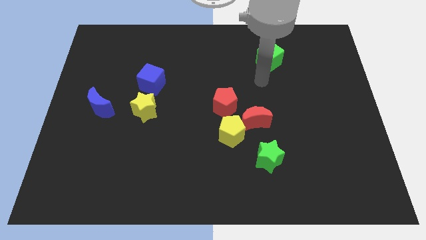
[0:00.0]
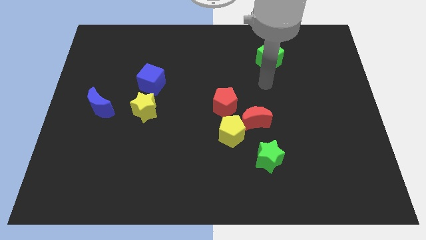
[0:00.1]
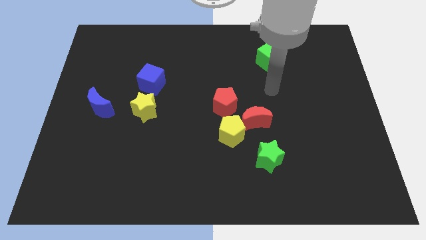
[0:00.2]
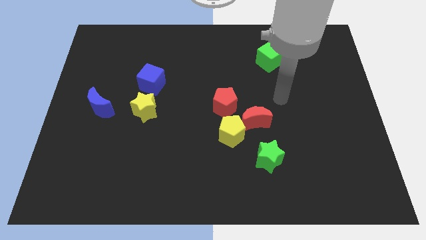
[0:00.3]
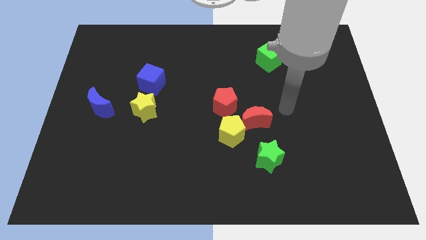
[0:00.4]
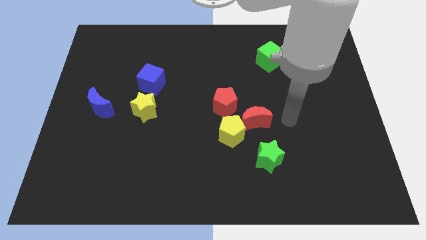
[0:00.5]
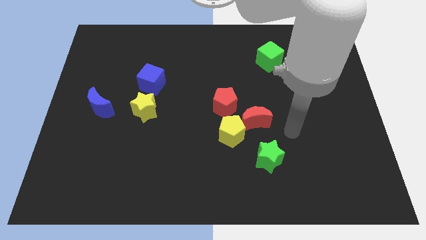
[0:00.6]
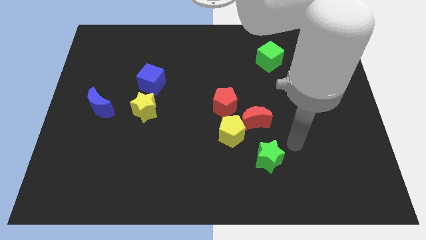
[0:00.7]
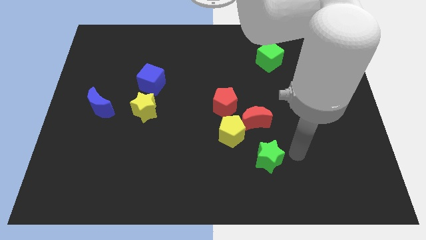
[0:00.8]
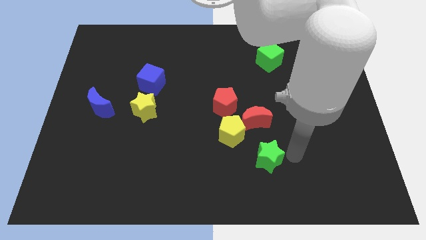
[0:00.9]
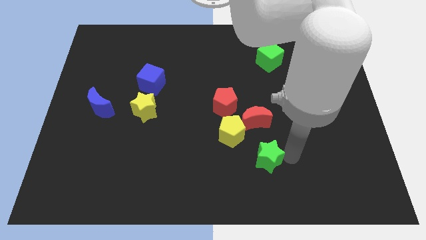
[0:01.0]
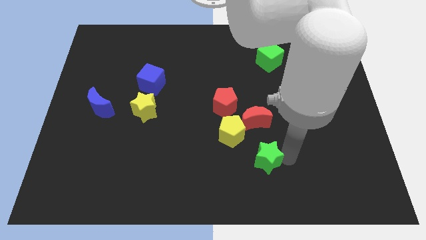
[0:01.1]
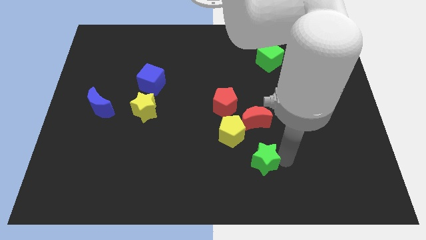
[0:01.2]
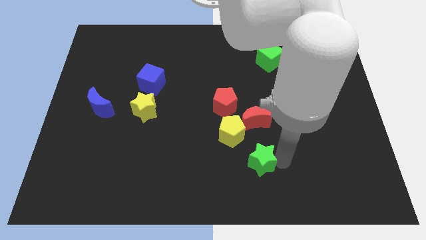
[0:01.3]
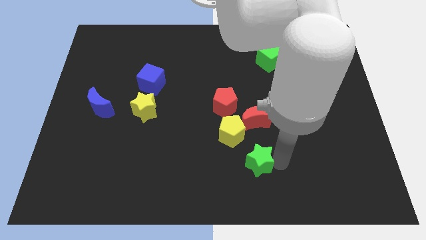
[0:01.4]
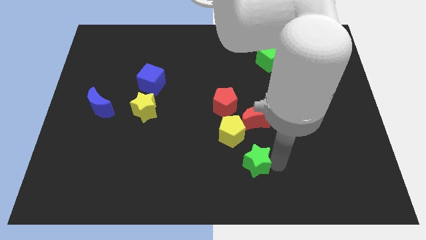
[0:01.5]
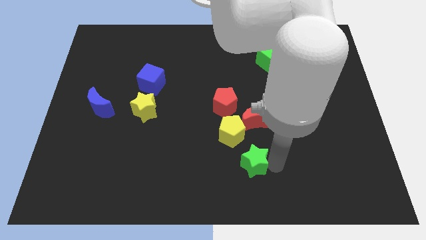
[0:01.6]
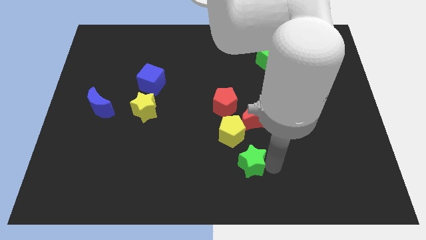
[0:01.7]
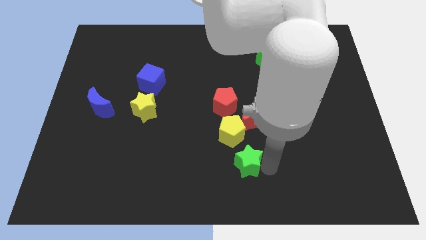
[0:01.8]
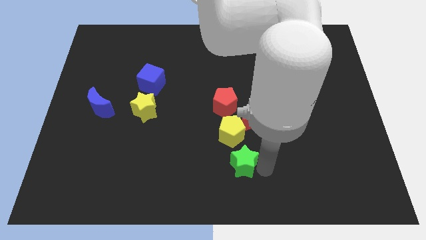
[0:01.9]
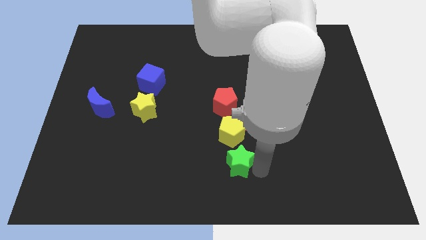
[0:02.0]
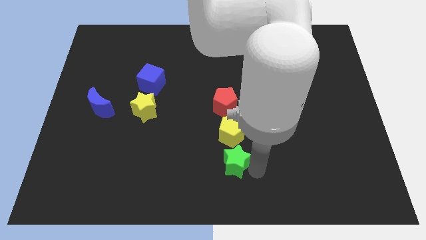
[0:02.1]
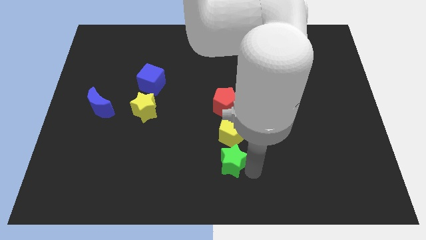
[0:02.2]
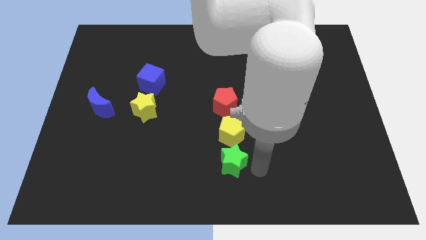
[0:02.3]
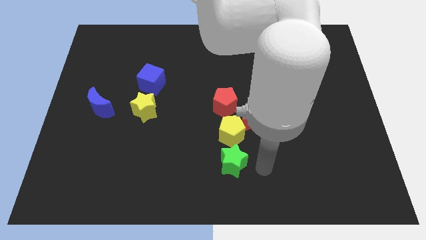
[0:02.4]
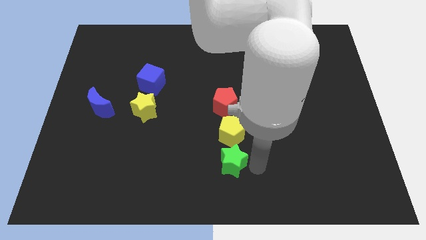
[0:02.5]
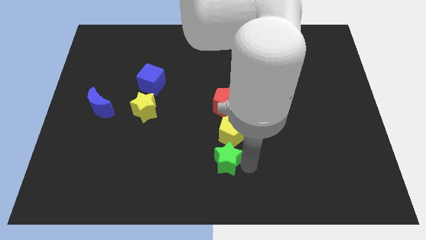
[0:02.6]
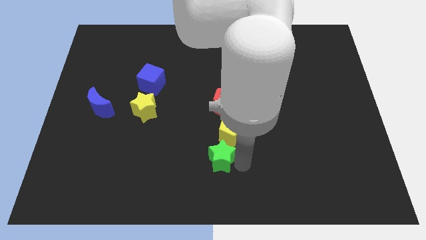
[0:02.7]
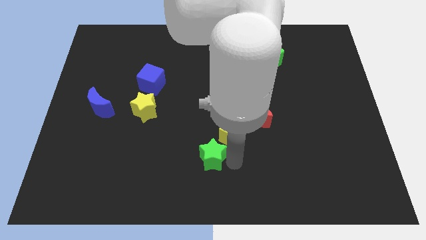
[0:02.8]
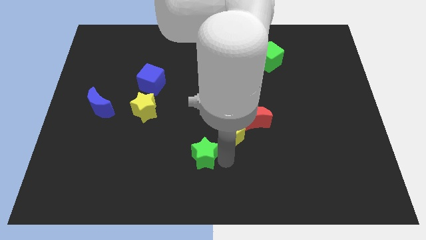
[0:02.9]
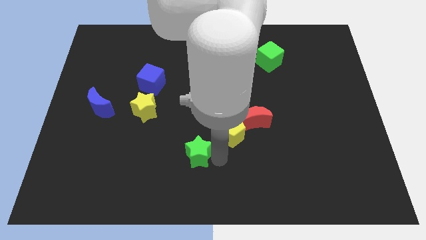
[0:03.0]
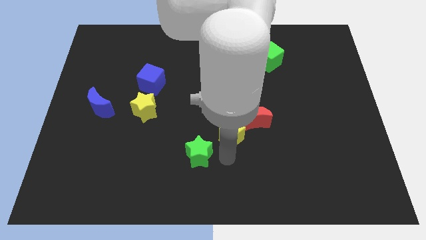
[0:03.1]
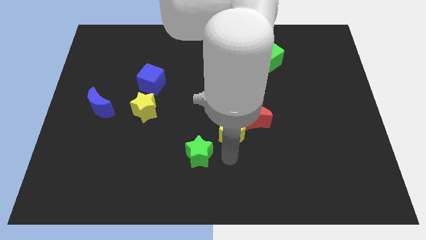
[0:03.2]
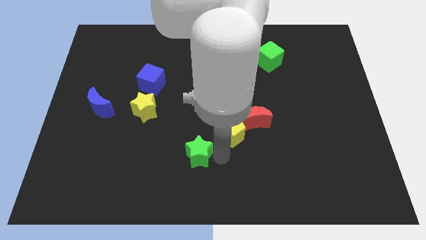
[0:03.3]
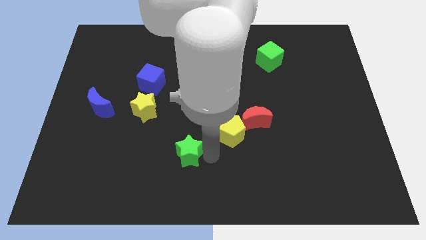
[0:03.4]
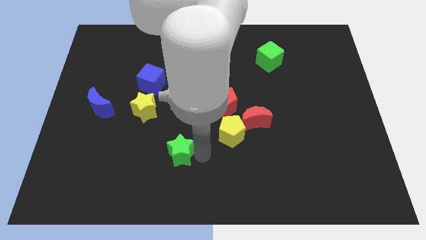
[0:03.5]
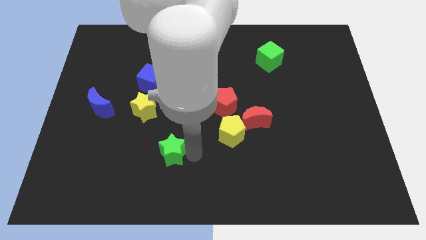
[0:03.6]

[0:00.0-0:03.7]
slide the green star to the left

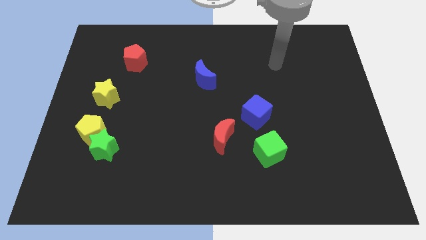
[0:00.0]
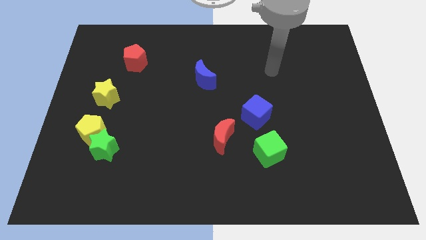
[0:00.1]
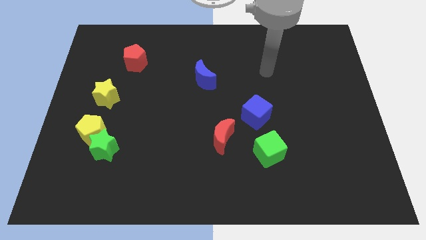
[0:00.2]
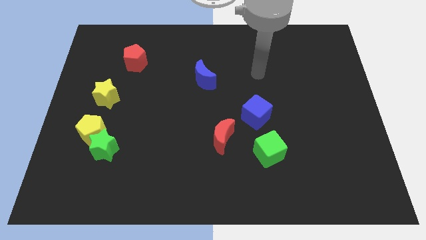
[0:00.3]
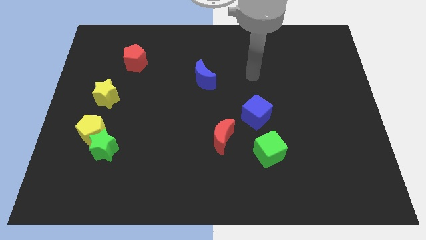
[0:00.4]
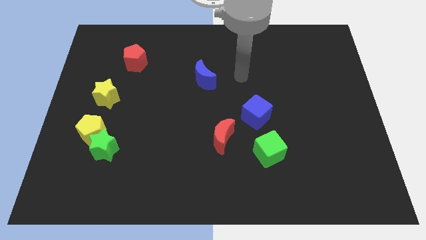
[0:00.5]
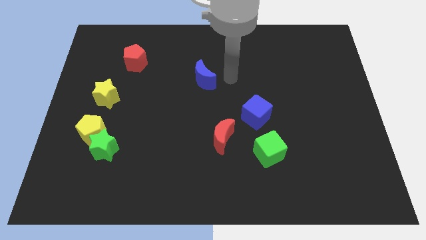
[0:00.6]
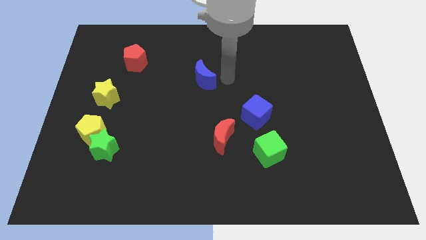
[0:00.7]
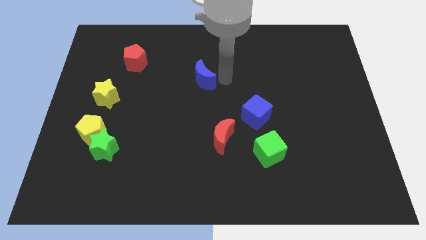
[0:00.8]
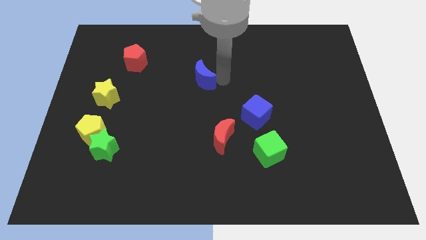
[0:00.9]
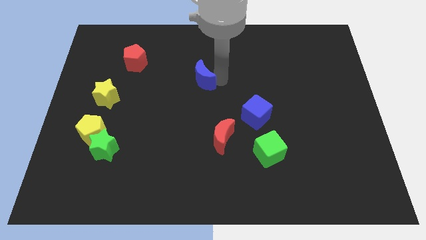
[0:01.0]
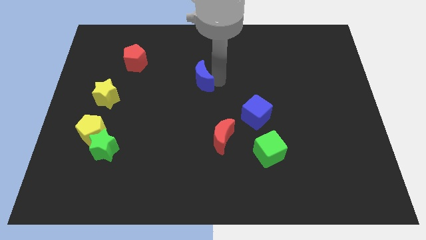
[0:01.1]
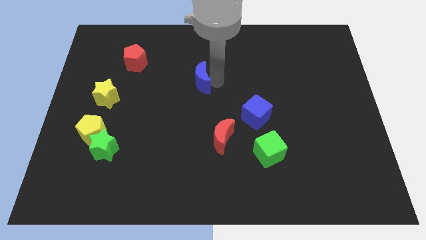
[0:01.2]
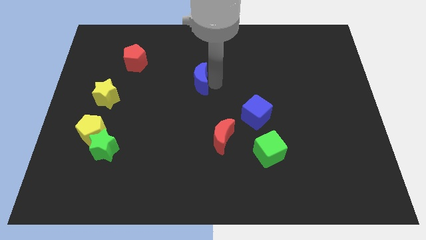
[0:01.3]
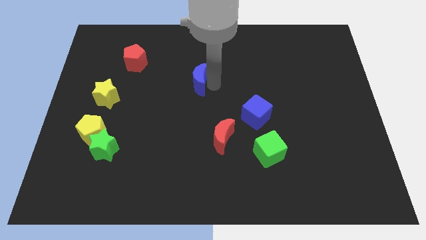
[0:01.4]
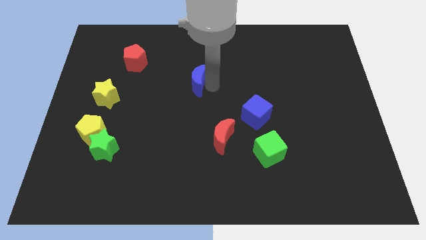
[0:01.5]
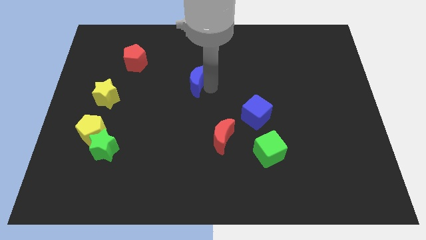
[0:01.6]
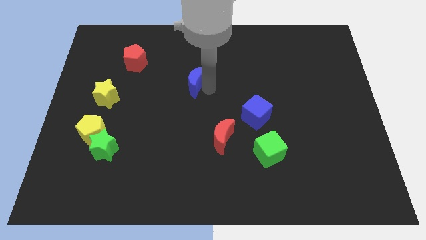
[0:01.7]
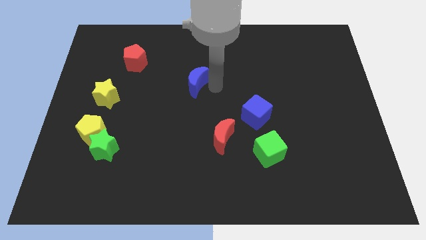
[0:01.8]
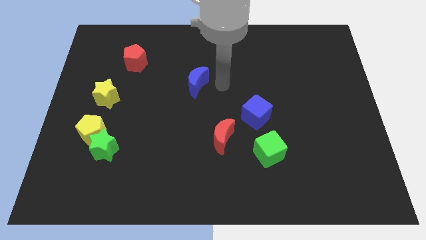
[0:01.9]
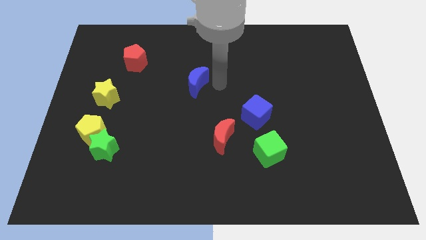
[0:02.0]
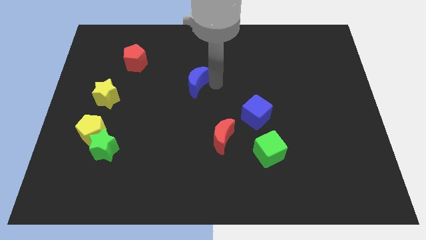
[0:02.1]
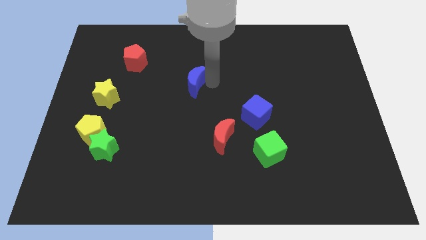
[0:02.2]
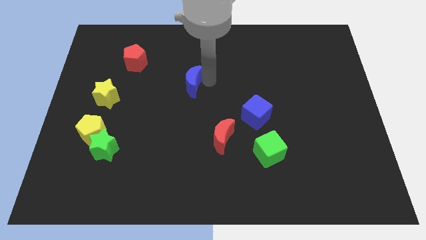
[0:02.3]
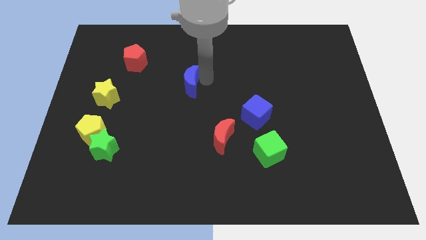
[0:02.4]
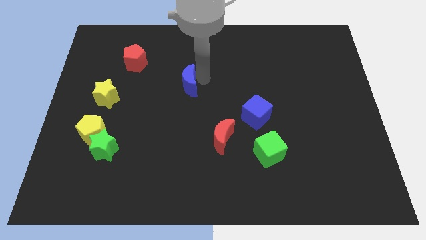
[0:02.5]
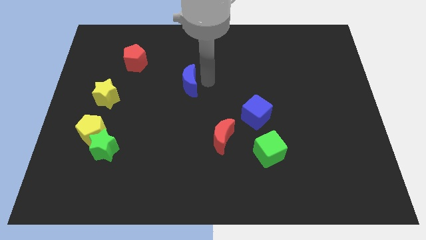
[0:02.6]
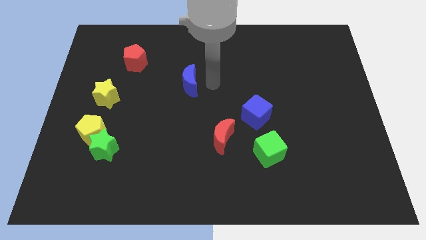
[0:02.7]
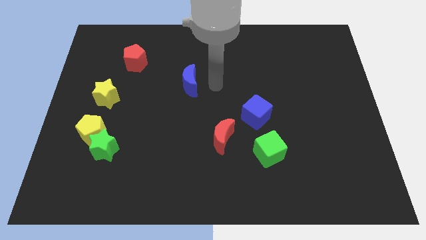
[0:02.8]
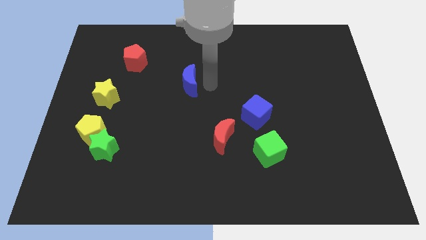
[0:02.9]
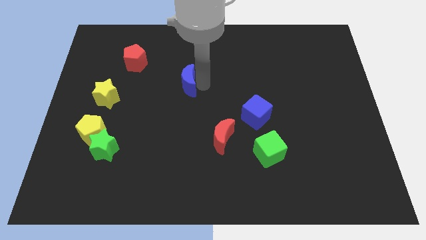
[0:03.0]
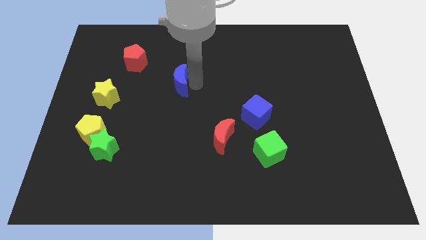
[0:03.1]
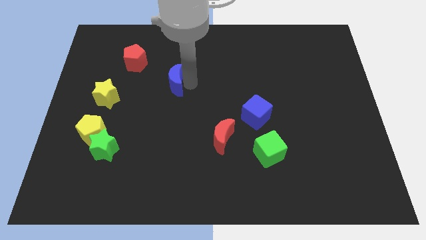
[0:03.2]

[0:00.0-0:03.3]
slightly push the blue moon left

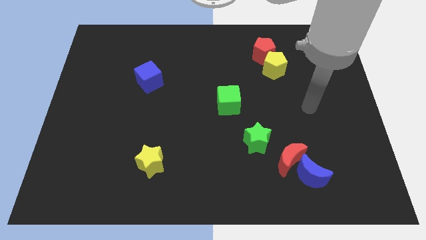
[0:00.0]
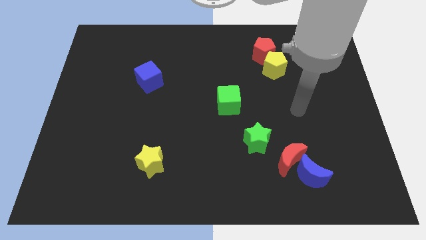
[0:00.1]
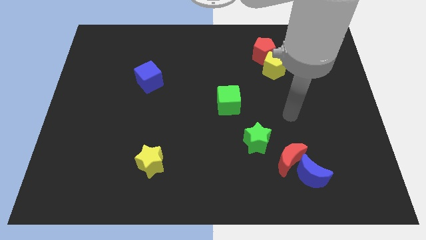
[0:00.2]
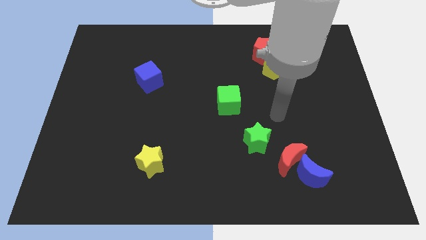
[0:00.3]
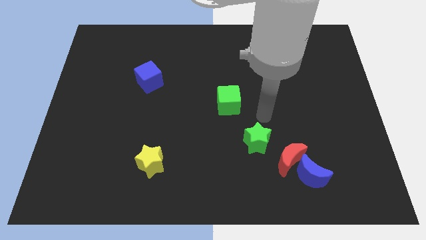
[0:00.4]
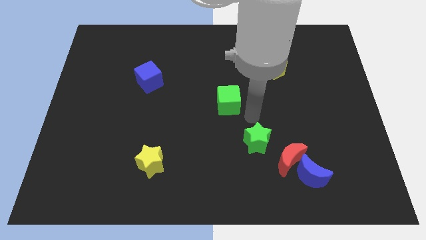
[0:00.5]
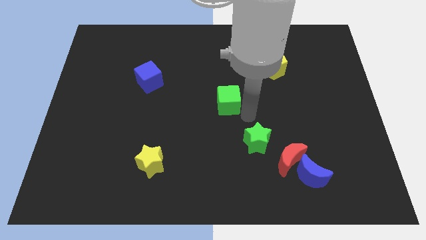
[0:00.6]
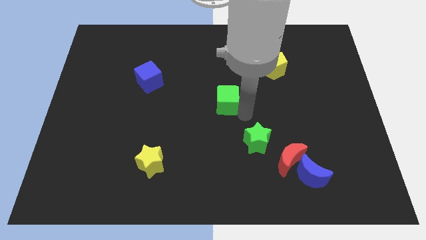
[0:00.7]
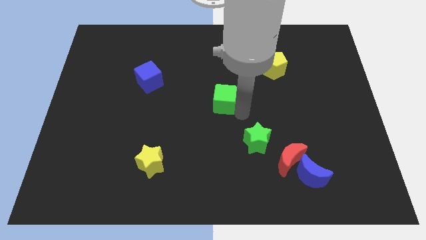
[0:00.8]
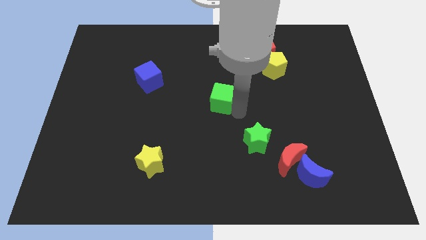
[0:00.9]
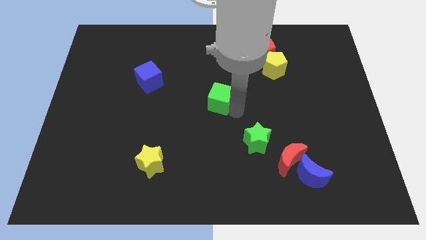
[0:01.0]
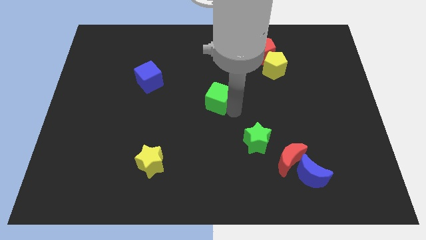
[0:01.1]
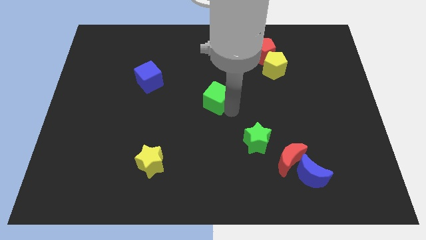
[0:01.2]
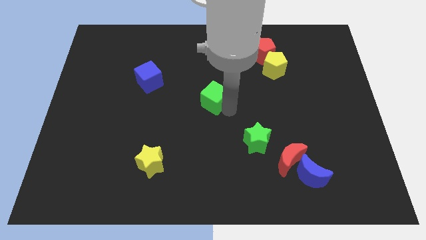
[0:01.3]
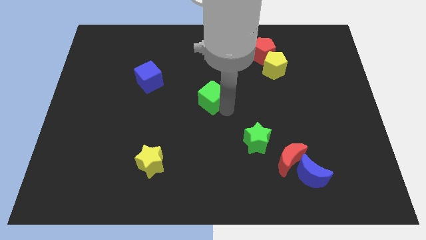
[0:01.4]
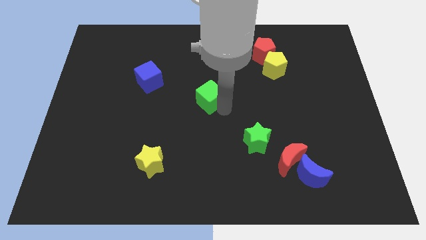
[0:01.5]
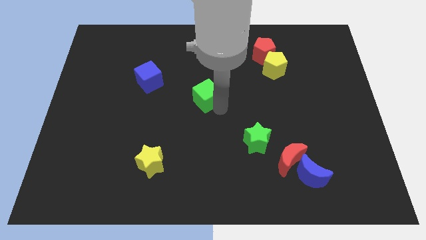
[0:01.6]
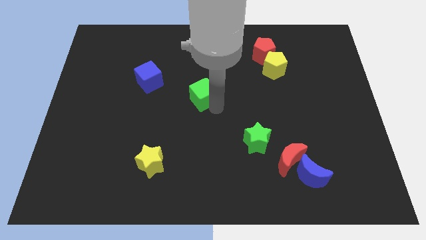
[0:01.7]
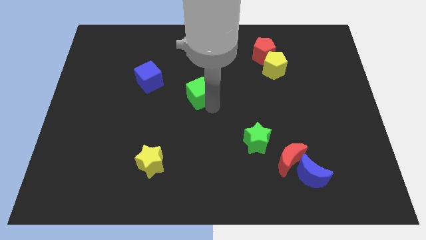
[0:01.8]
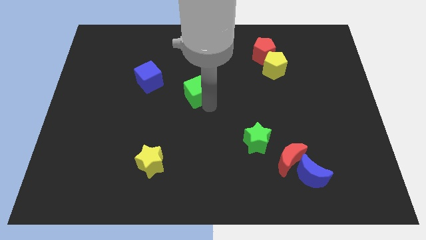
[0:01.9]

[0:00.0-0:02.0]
move the green cube up and to the left diagonally slightly
